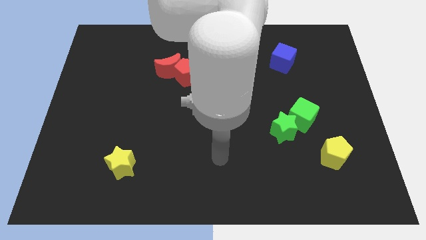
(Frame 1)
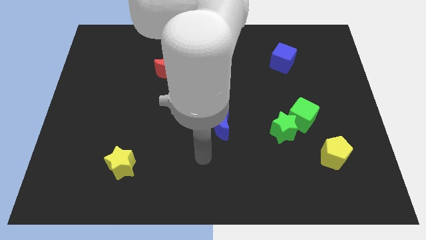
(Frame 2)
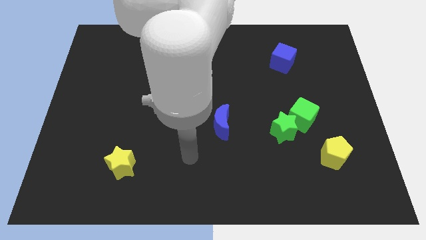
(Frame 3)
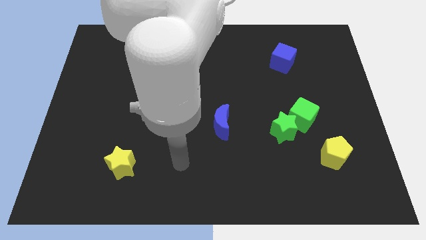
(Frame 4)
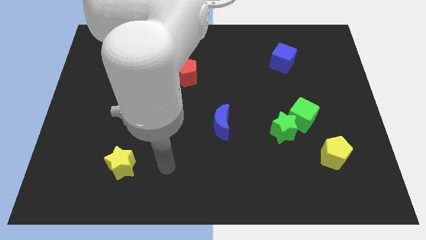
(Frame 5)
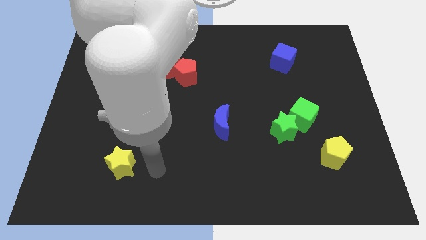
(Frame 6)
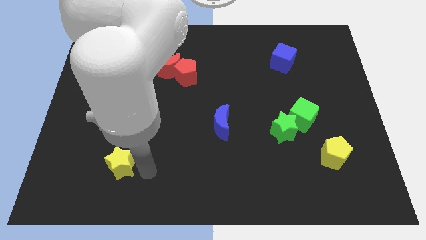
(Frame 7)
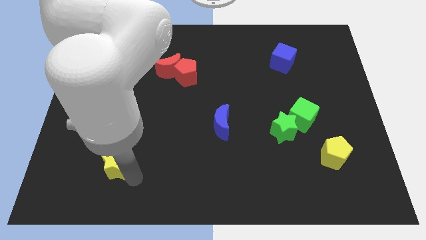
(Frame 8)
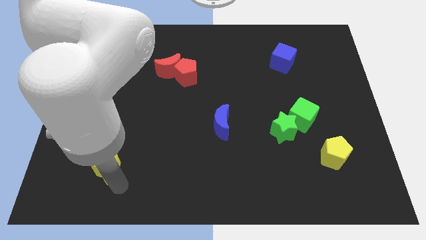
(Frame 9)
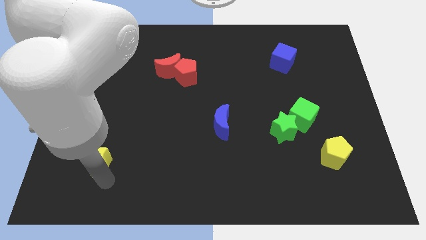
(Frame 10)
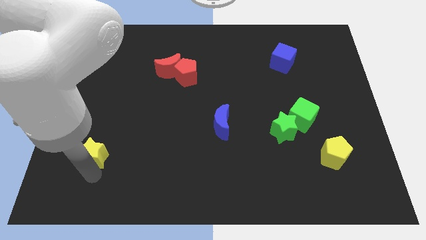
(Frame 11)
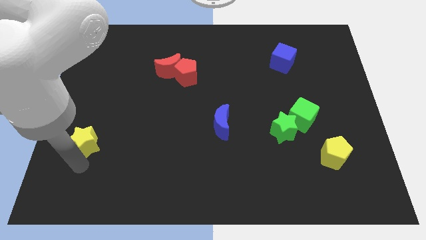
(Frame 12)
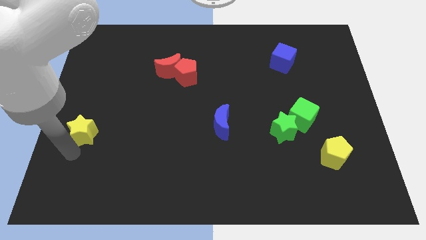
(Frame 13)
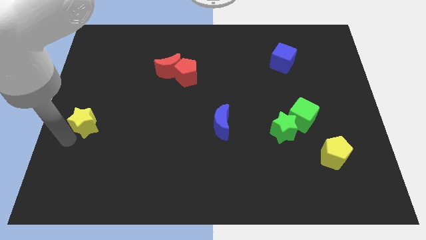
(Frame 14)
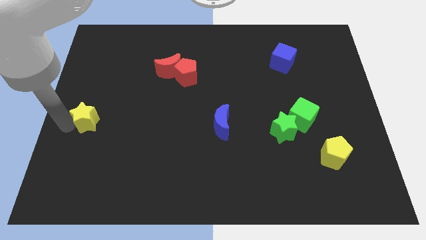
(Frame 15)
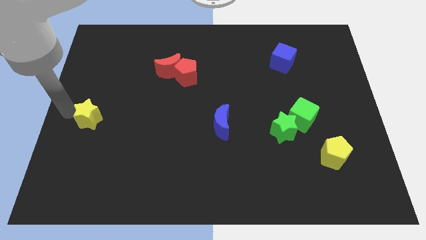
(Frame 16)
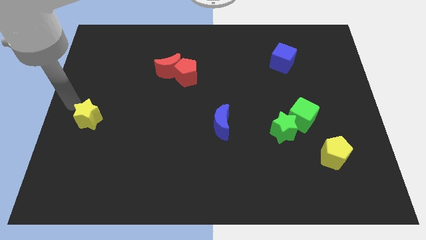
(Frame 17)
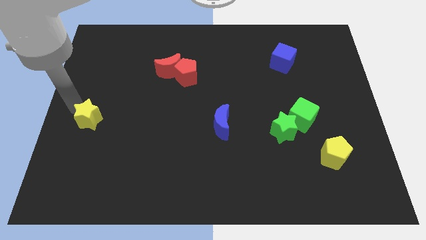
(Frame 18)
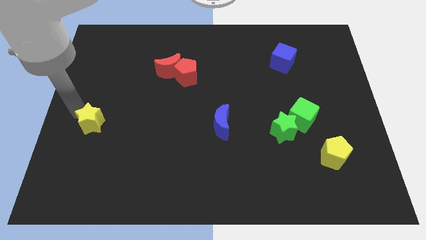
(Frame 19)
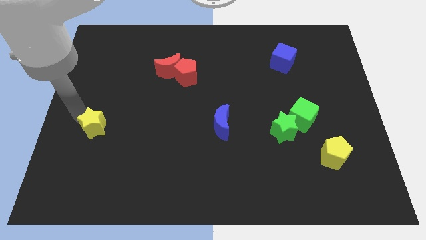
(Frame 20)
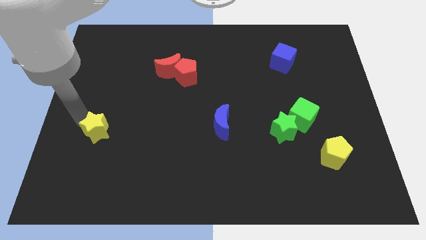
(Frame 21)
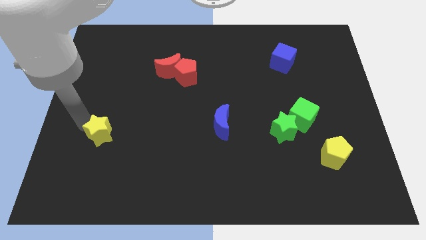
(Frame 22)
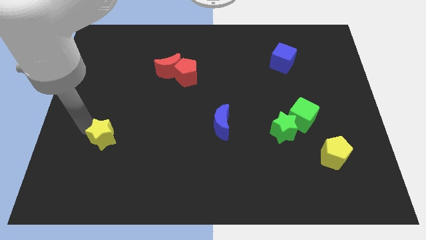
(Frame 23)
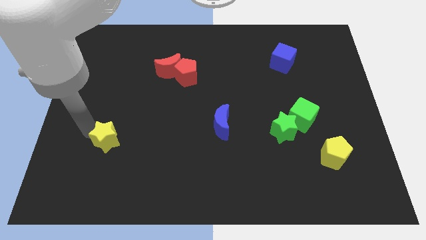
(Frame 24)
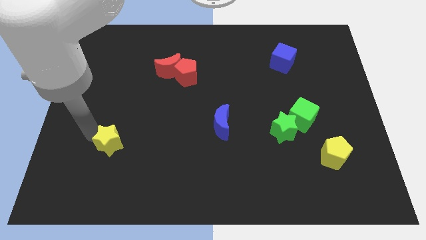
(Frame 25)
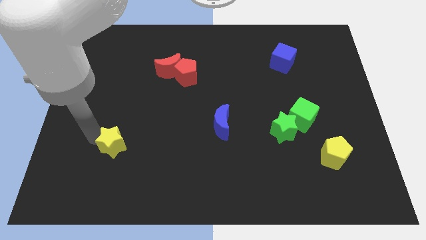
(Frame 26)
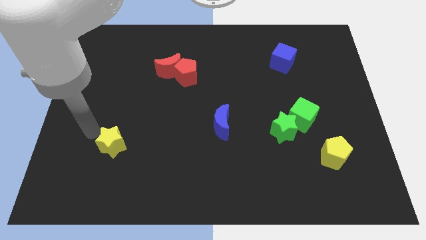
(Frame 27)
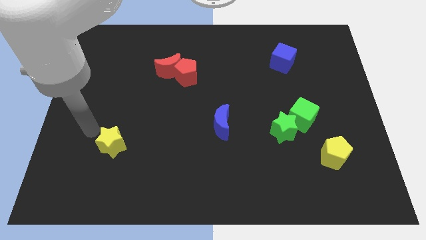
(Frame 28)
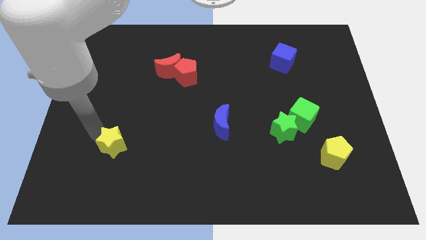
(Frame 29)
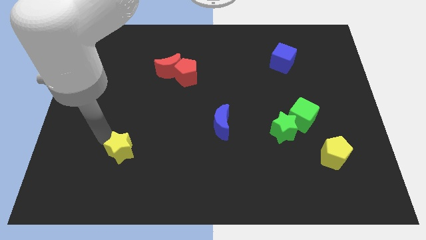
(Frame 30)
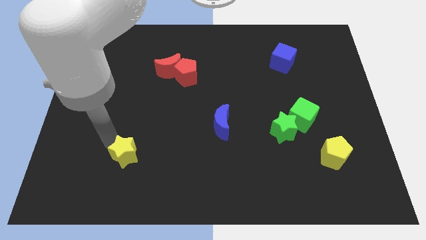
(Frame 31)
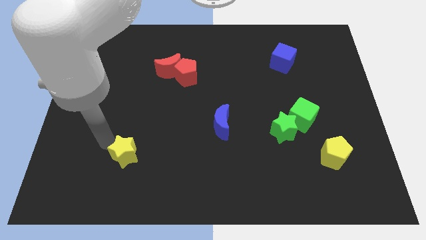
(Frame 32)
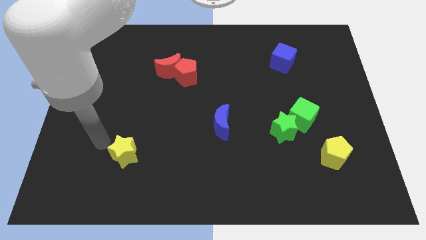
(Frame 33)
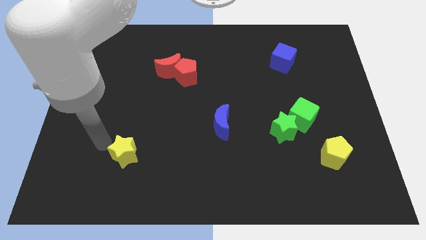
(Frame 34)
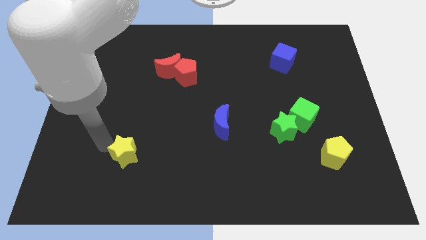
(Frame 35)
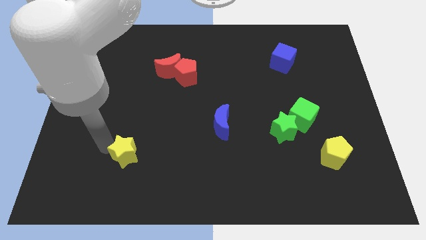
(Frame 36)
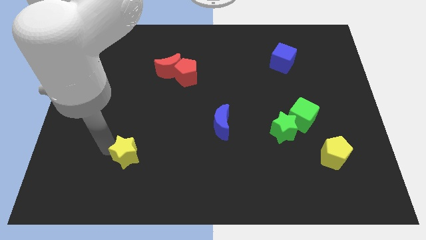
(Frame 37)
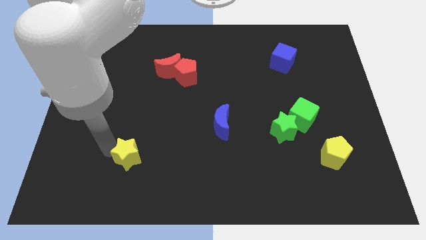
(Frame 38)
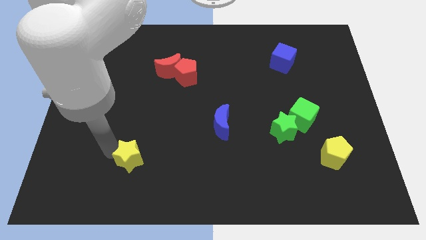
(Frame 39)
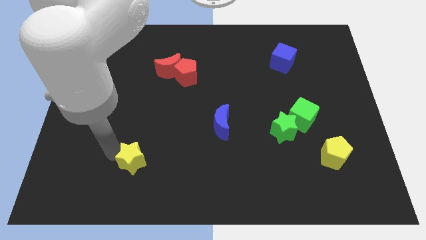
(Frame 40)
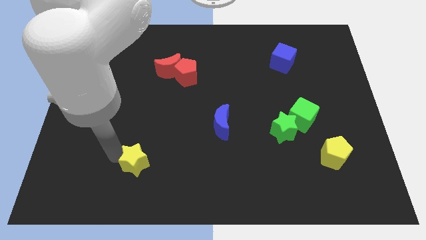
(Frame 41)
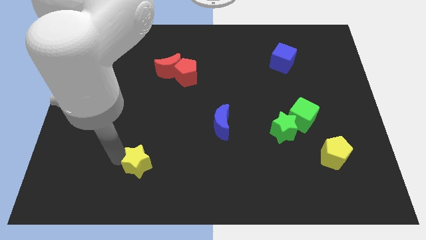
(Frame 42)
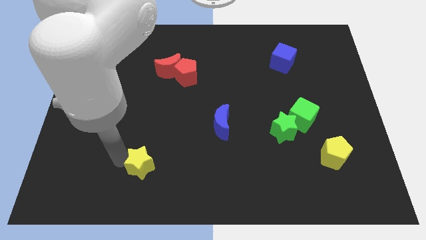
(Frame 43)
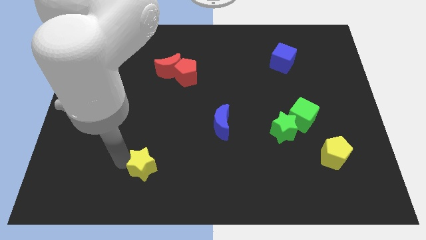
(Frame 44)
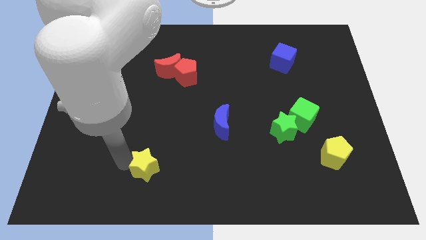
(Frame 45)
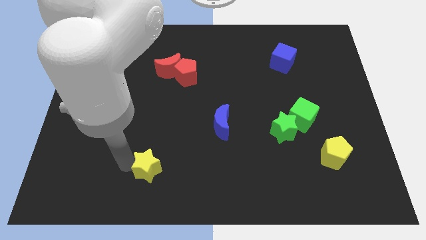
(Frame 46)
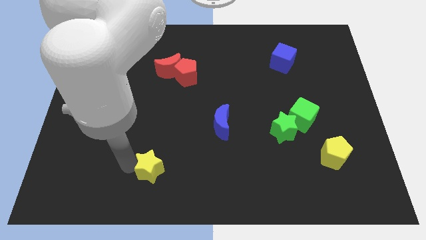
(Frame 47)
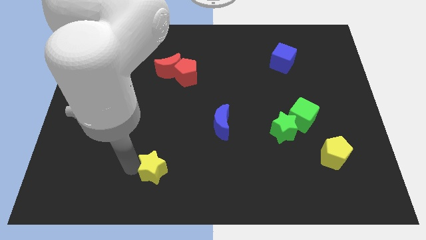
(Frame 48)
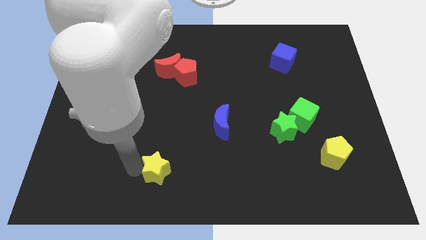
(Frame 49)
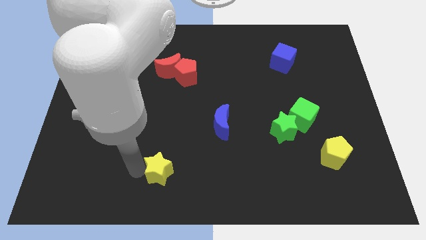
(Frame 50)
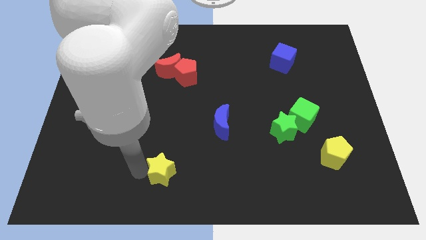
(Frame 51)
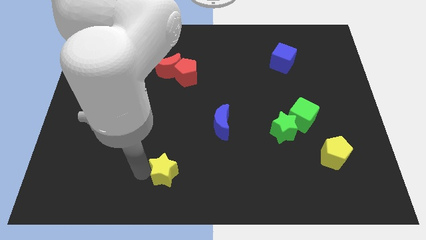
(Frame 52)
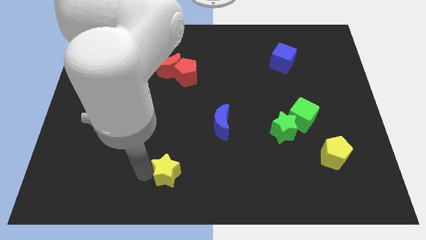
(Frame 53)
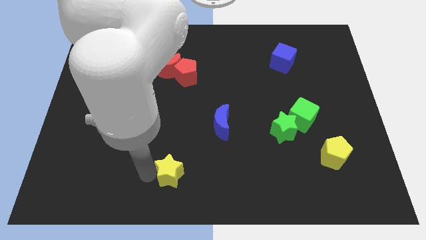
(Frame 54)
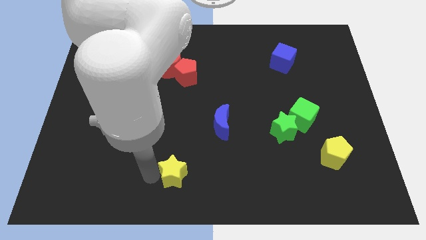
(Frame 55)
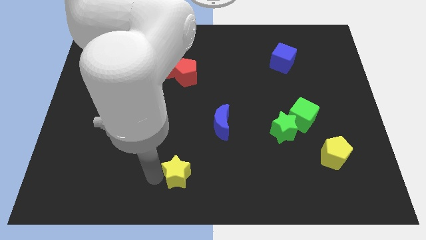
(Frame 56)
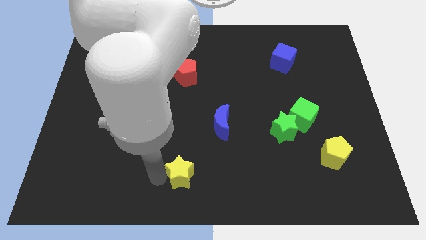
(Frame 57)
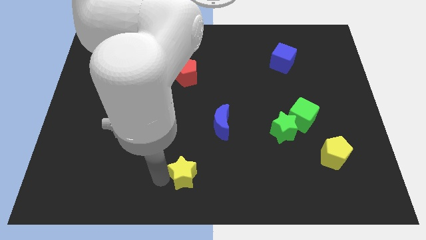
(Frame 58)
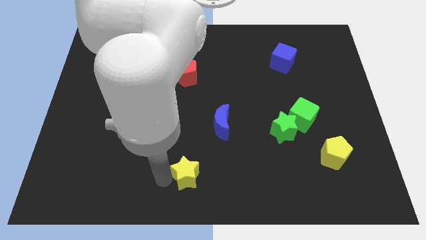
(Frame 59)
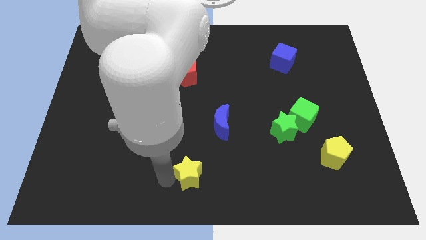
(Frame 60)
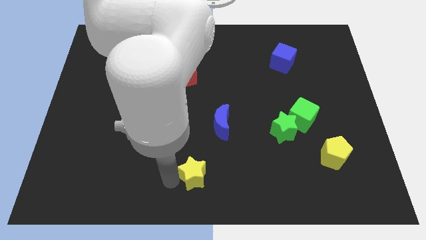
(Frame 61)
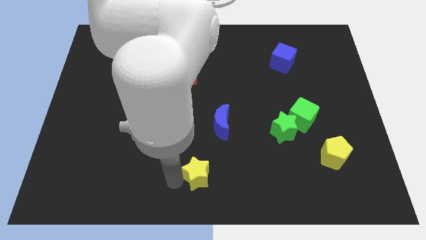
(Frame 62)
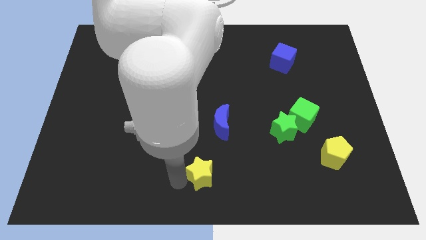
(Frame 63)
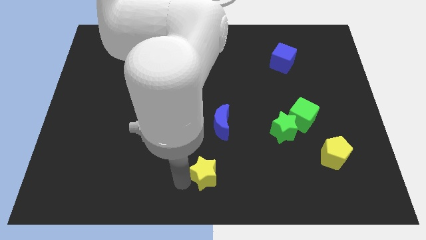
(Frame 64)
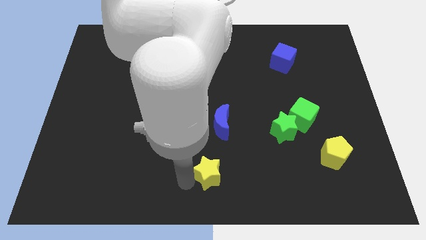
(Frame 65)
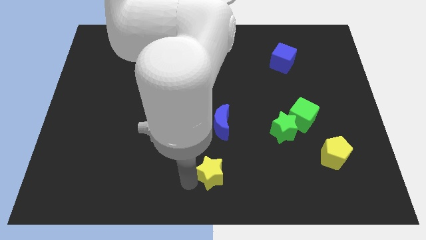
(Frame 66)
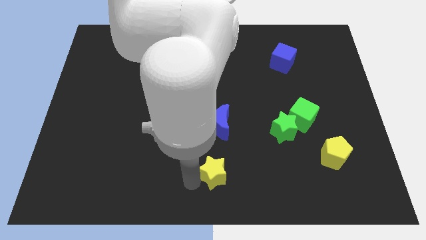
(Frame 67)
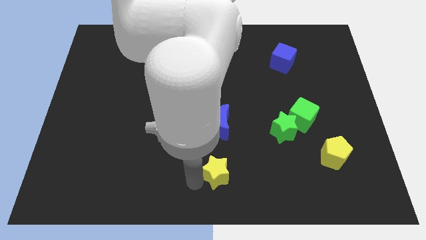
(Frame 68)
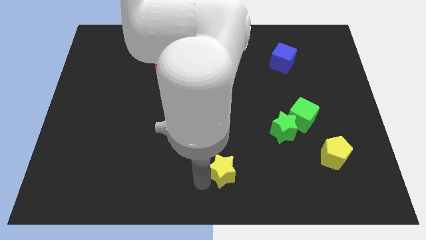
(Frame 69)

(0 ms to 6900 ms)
push the yellow star to the right

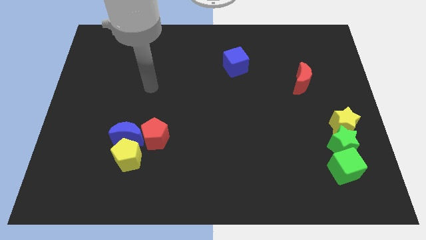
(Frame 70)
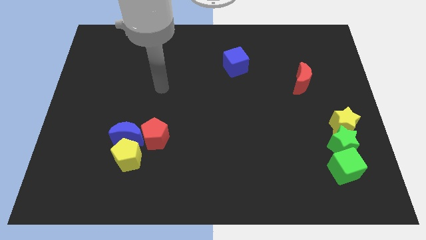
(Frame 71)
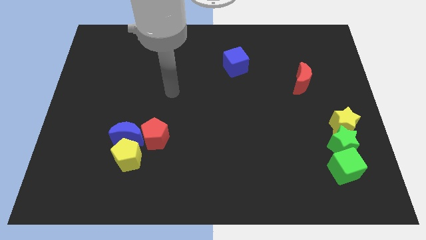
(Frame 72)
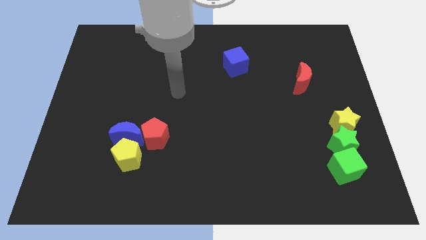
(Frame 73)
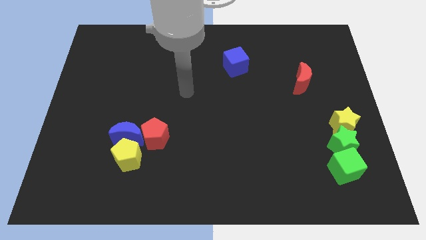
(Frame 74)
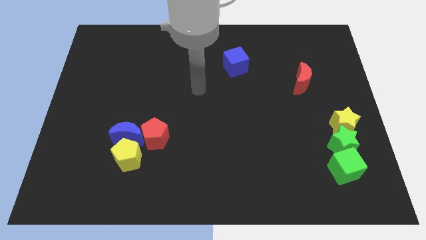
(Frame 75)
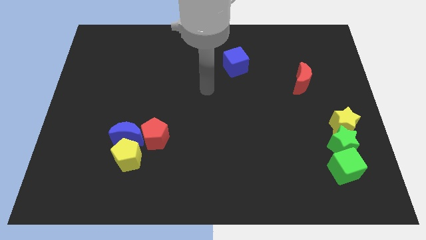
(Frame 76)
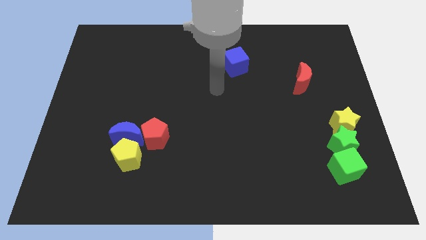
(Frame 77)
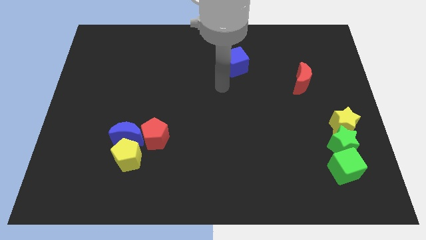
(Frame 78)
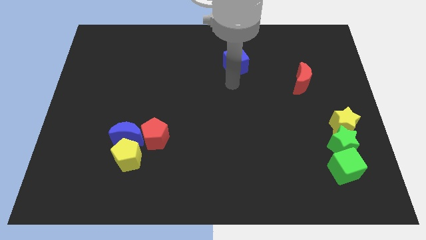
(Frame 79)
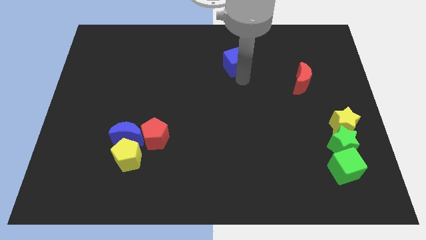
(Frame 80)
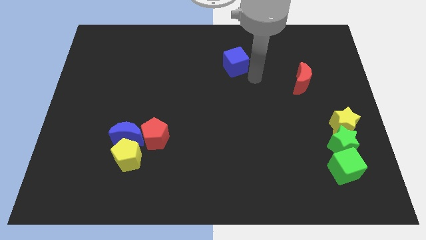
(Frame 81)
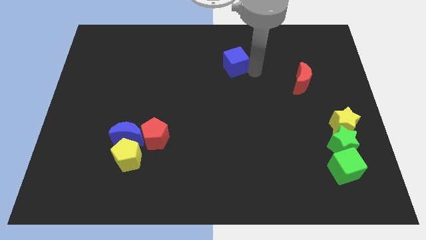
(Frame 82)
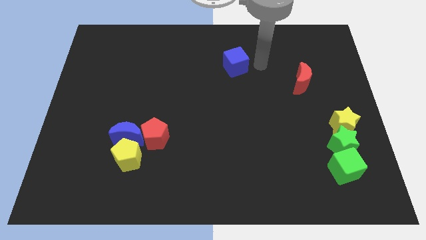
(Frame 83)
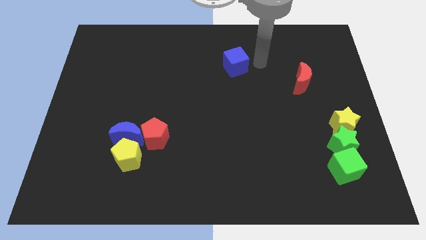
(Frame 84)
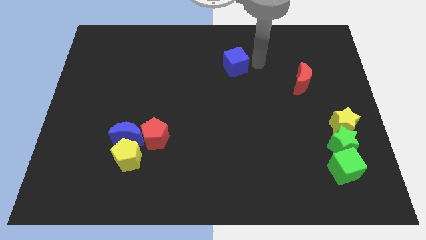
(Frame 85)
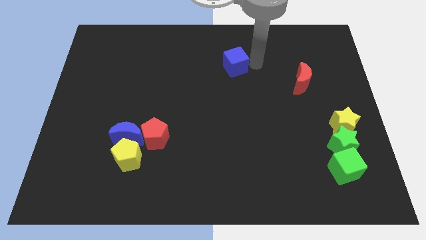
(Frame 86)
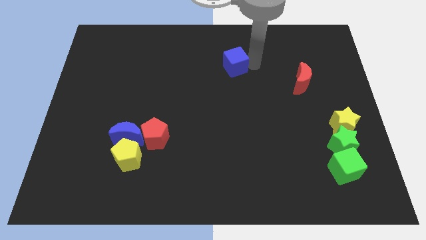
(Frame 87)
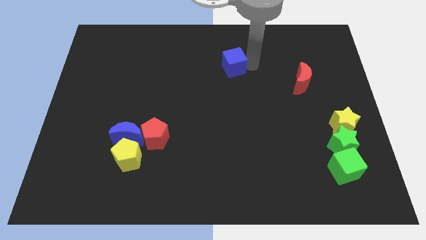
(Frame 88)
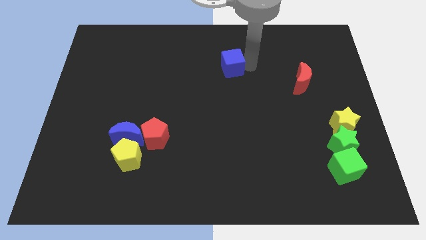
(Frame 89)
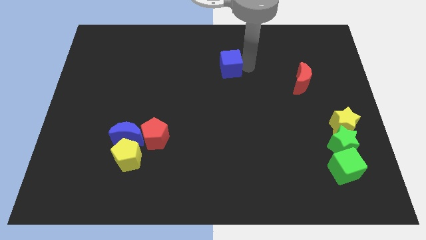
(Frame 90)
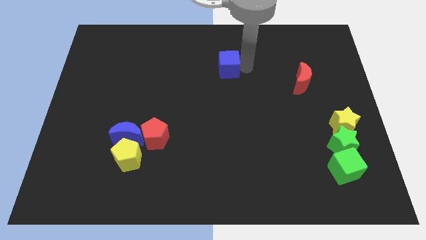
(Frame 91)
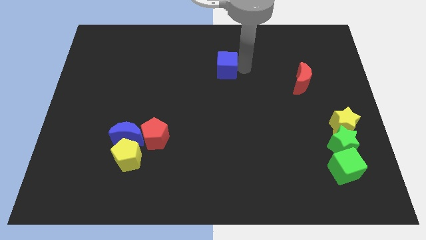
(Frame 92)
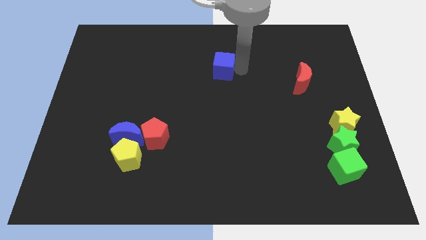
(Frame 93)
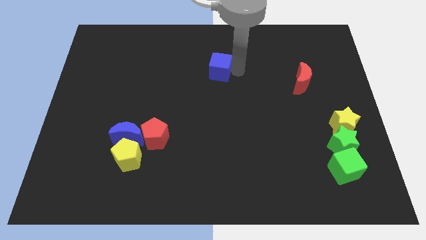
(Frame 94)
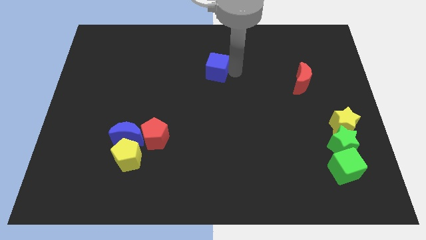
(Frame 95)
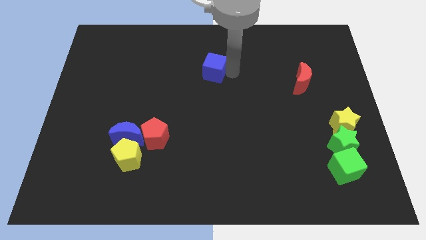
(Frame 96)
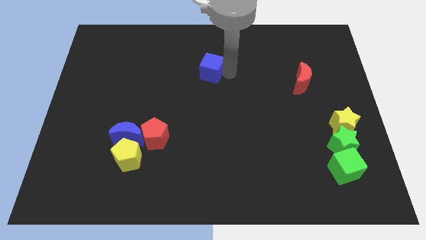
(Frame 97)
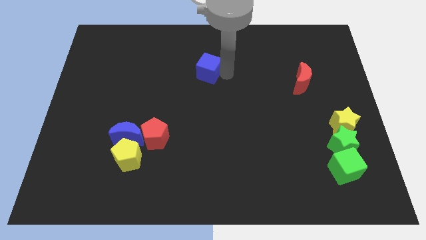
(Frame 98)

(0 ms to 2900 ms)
push the blue cube left a little
